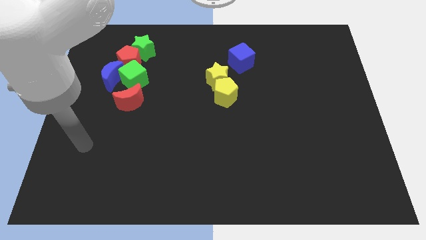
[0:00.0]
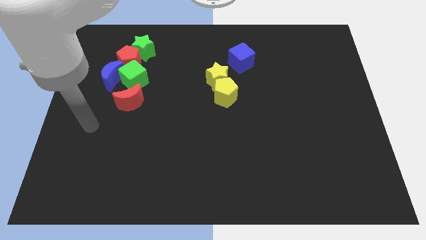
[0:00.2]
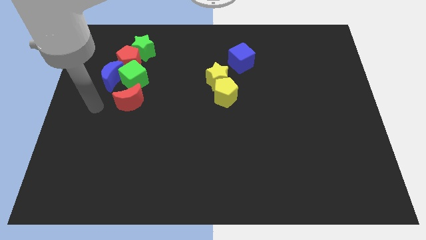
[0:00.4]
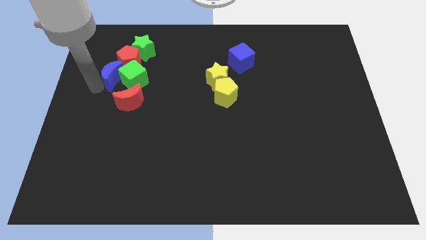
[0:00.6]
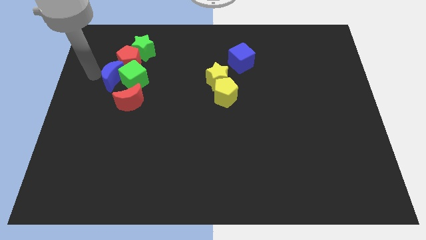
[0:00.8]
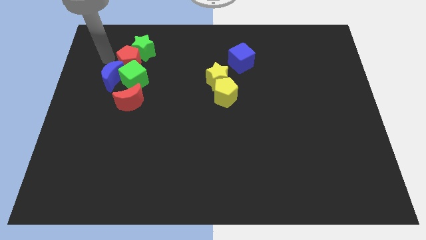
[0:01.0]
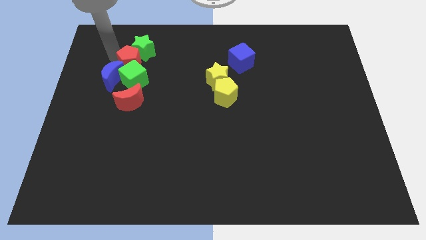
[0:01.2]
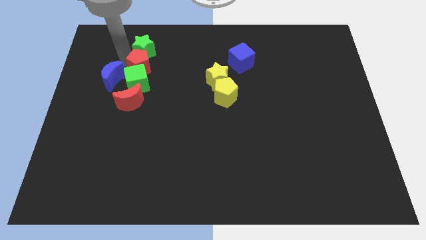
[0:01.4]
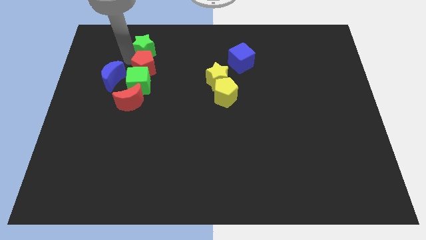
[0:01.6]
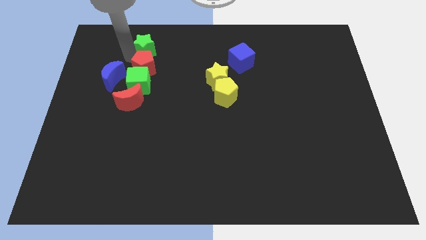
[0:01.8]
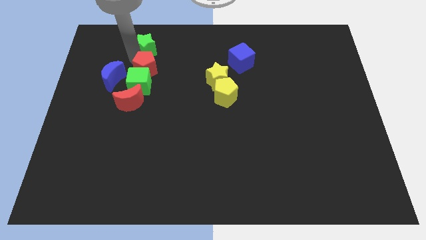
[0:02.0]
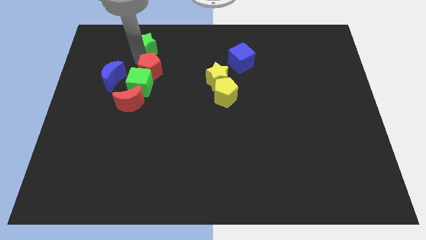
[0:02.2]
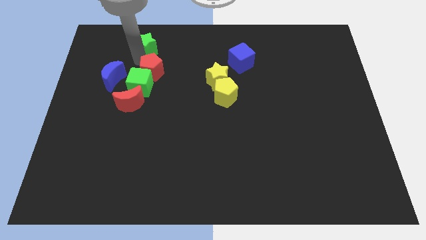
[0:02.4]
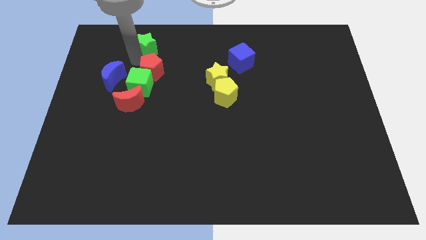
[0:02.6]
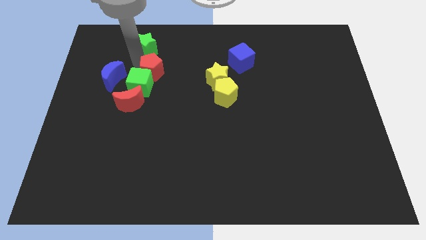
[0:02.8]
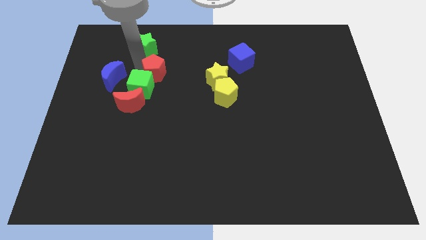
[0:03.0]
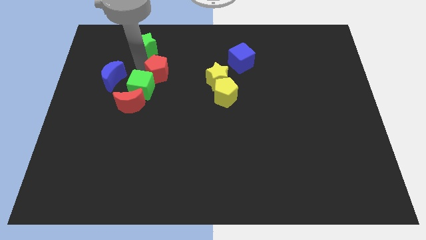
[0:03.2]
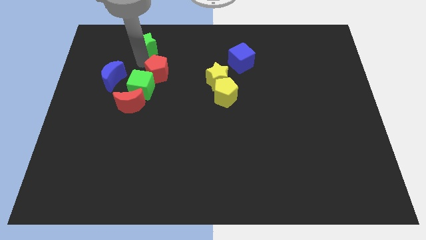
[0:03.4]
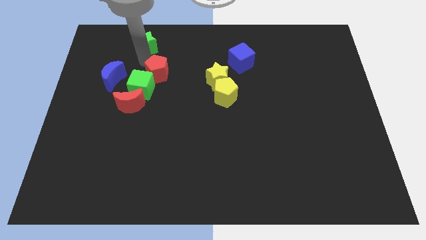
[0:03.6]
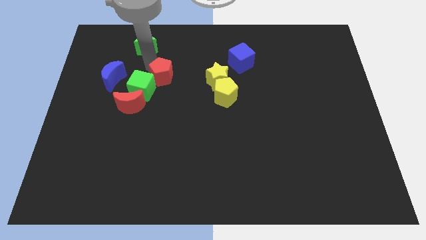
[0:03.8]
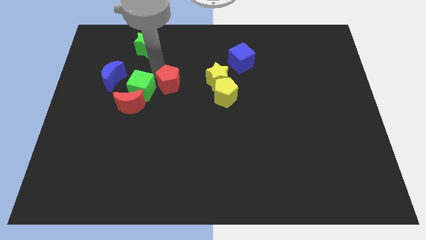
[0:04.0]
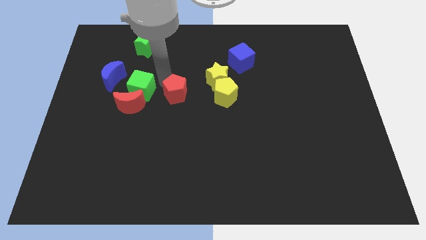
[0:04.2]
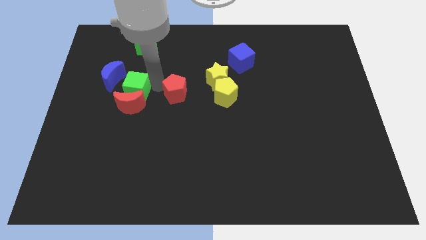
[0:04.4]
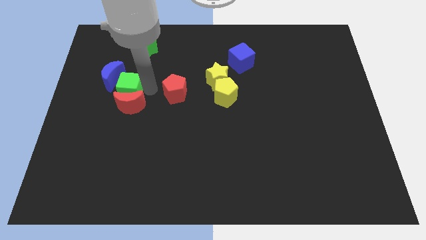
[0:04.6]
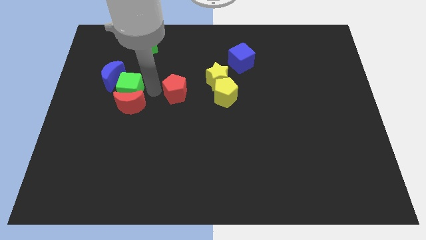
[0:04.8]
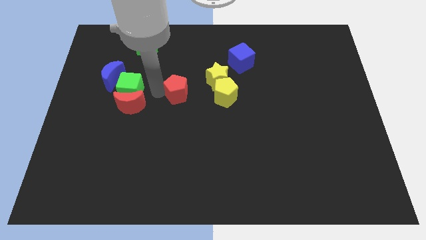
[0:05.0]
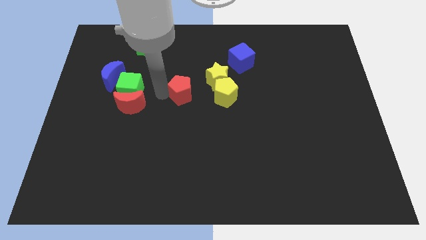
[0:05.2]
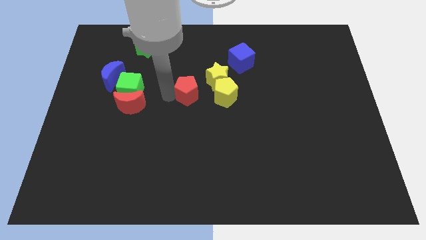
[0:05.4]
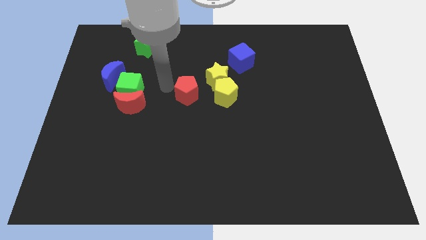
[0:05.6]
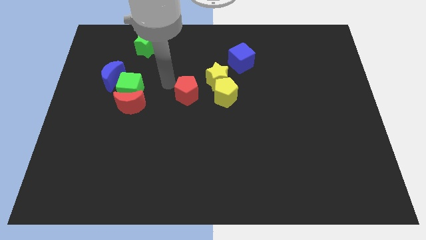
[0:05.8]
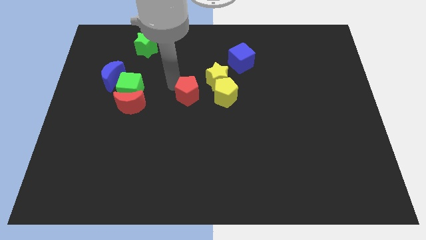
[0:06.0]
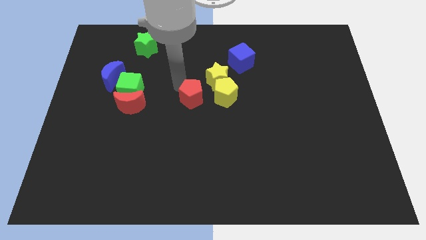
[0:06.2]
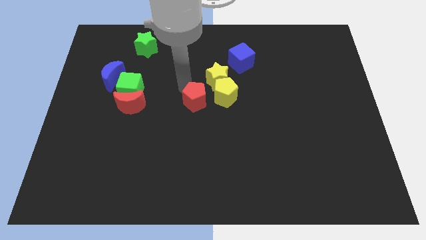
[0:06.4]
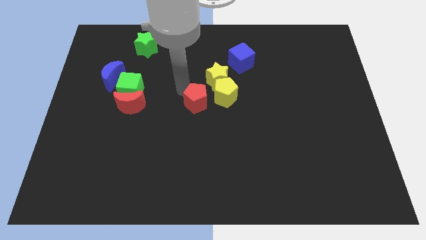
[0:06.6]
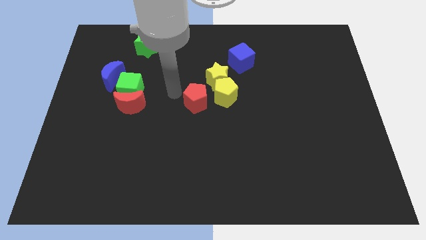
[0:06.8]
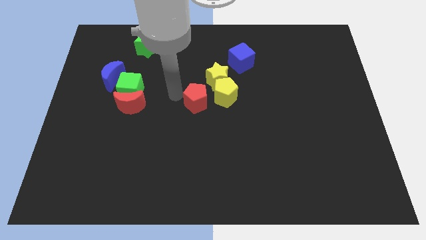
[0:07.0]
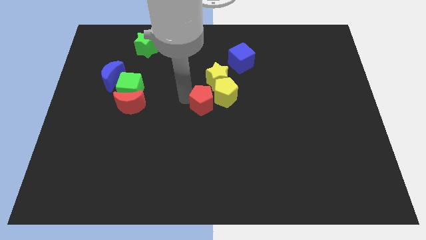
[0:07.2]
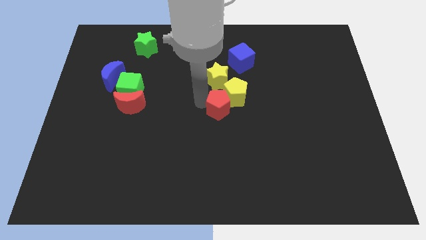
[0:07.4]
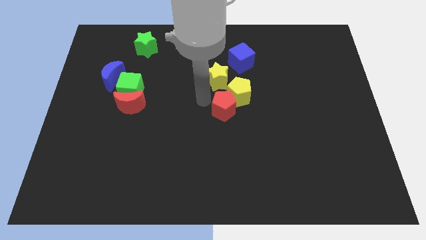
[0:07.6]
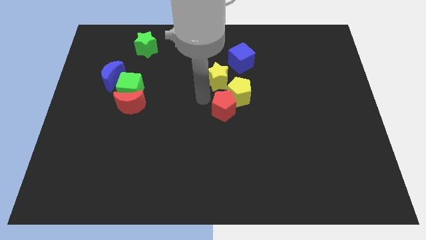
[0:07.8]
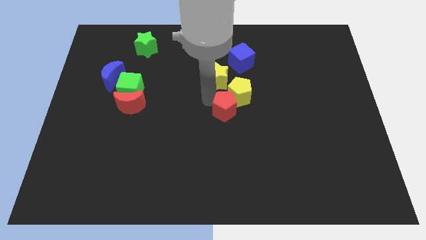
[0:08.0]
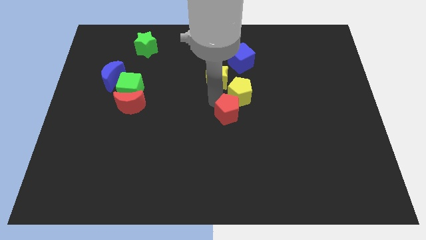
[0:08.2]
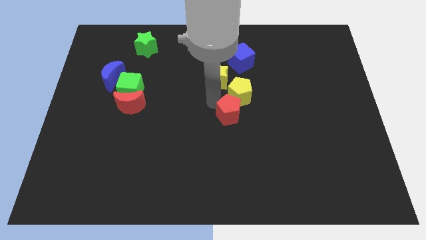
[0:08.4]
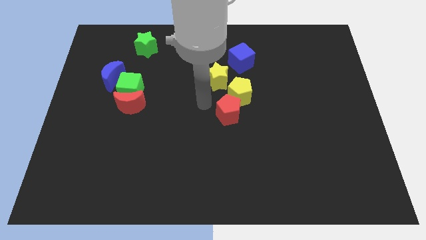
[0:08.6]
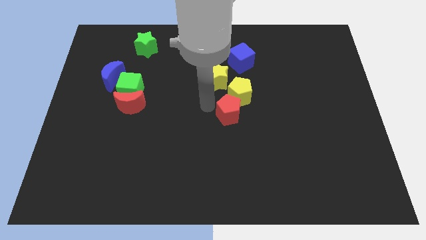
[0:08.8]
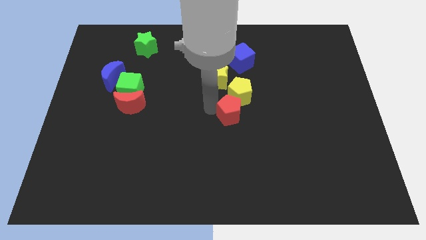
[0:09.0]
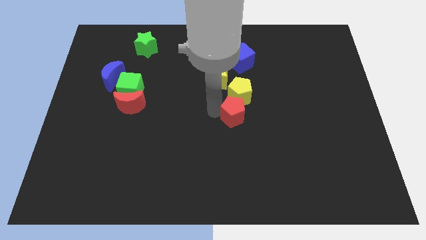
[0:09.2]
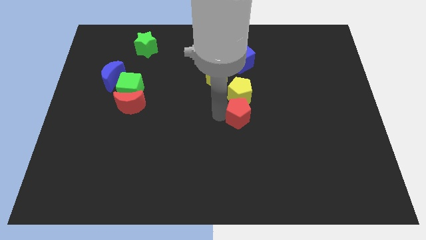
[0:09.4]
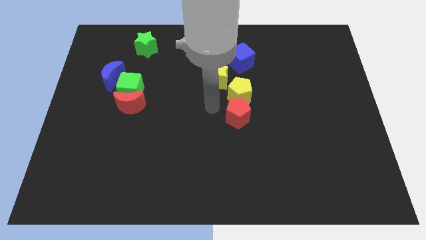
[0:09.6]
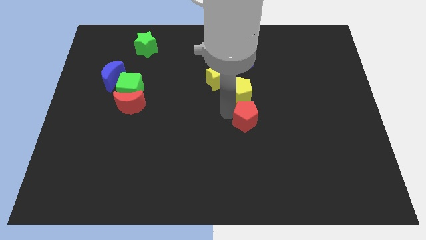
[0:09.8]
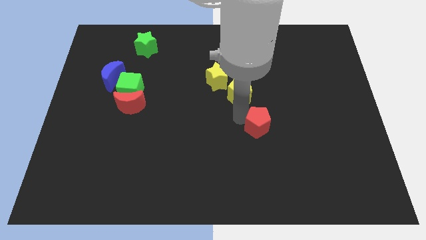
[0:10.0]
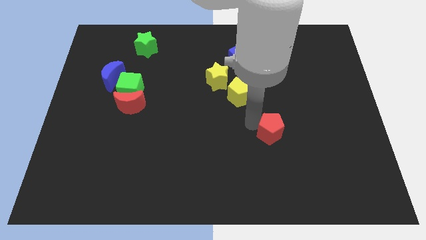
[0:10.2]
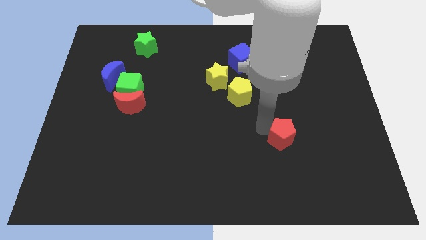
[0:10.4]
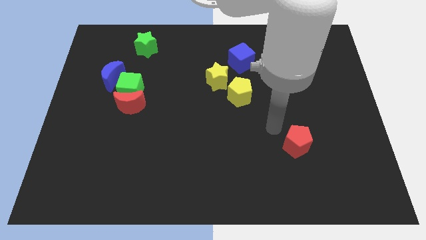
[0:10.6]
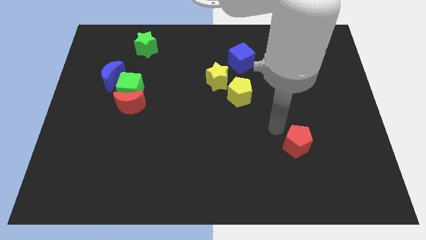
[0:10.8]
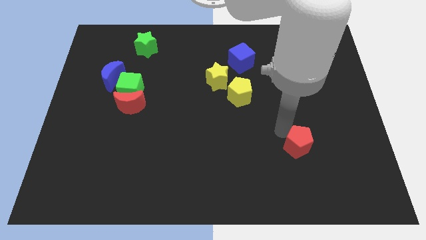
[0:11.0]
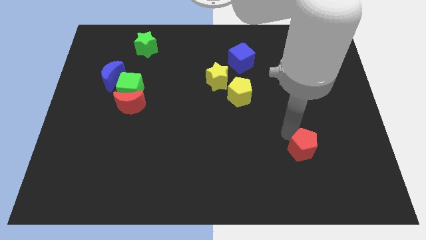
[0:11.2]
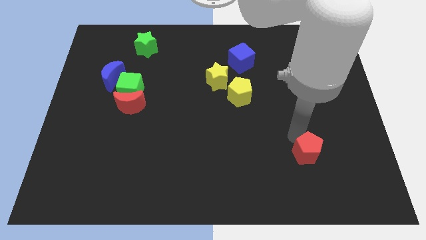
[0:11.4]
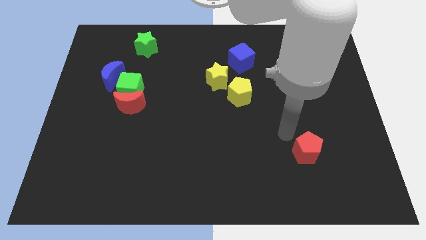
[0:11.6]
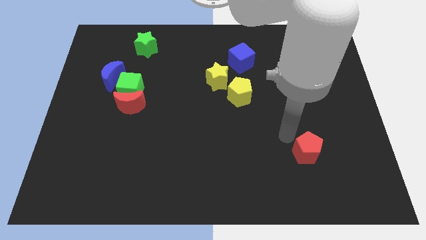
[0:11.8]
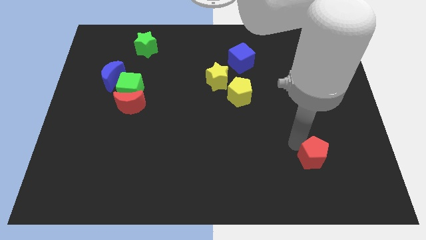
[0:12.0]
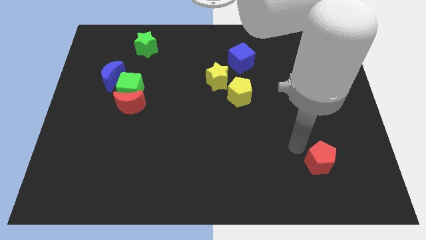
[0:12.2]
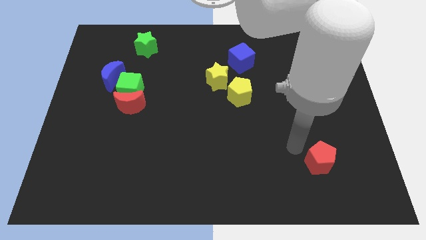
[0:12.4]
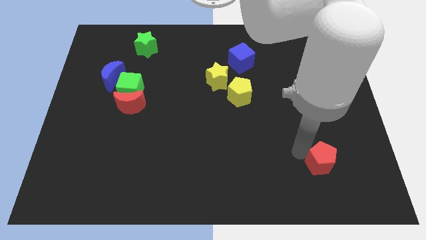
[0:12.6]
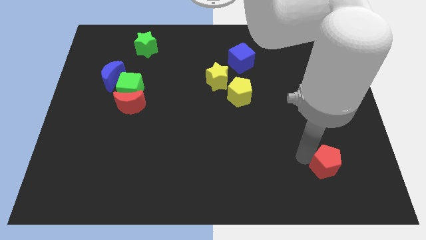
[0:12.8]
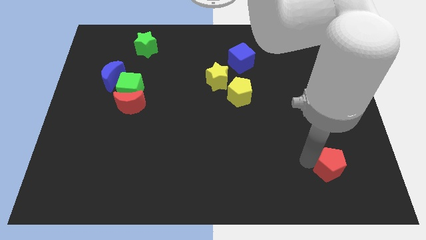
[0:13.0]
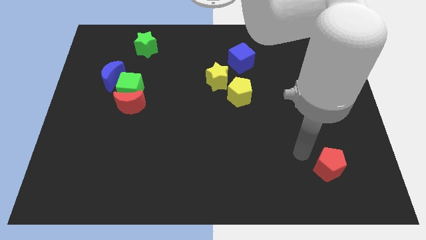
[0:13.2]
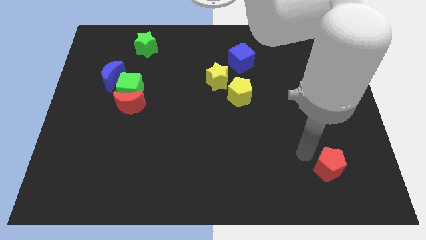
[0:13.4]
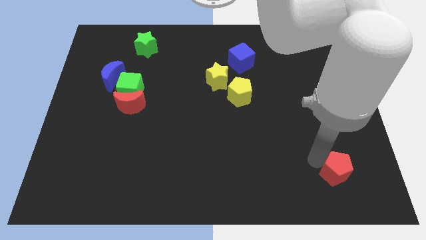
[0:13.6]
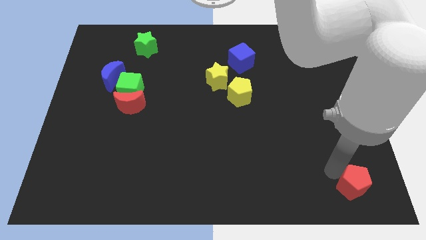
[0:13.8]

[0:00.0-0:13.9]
put the red pentagon to the bottom right
